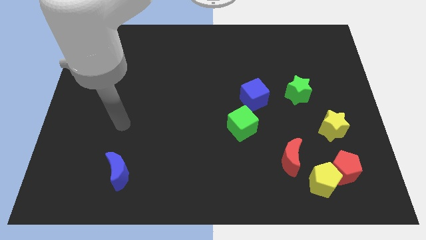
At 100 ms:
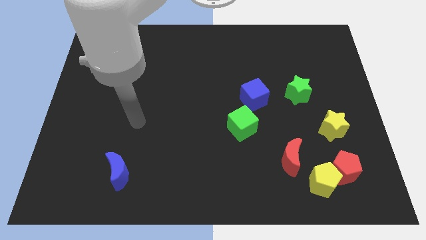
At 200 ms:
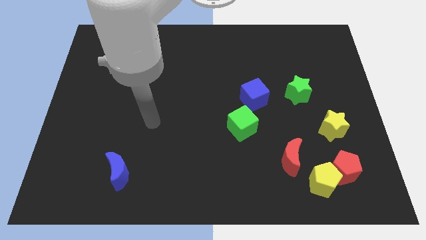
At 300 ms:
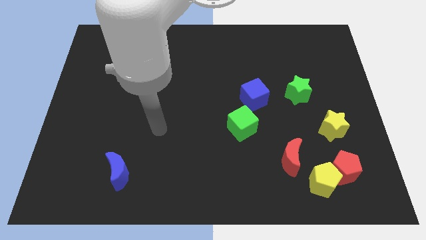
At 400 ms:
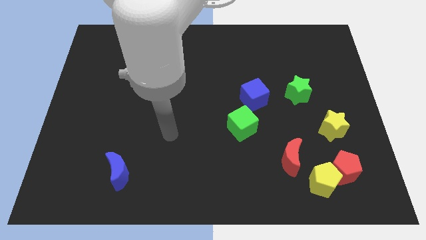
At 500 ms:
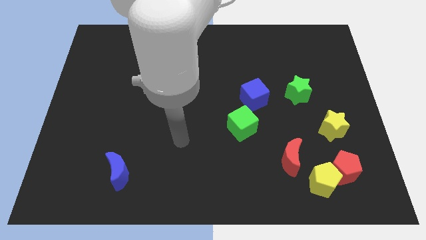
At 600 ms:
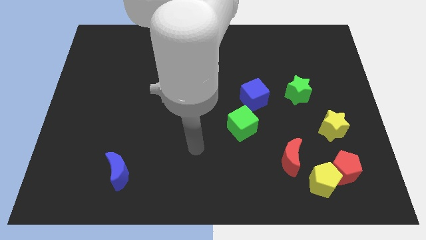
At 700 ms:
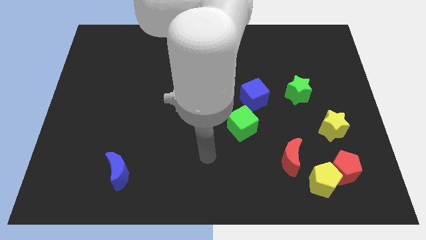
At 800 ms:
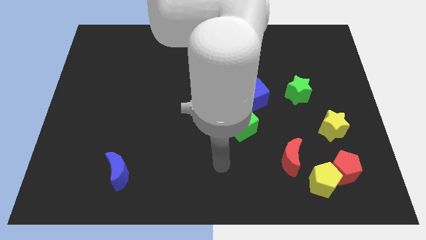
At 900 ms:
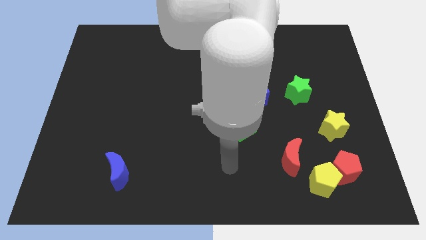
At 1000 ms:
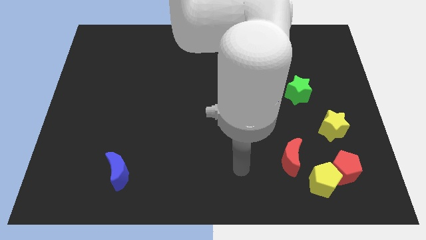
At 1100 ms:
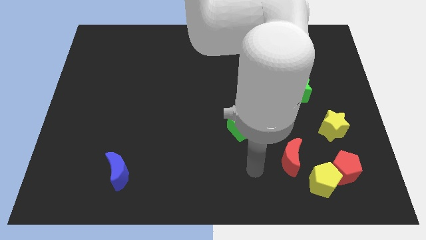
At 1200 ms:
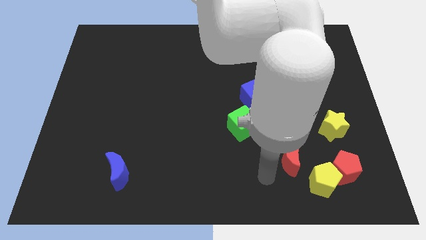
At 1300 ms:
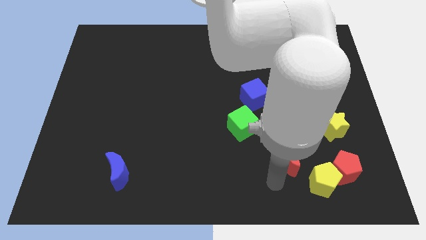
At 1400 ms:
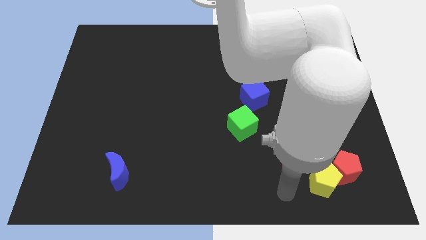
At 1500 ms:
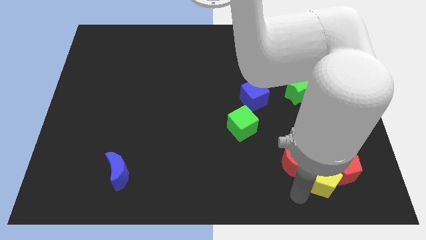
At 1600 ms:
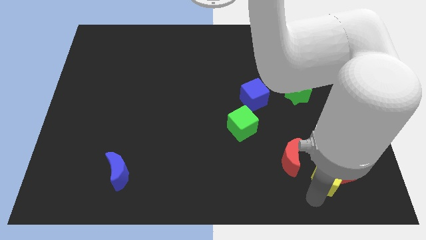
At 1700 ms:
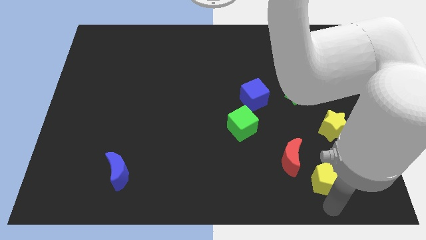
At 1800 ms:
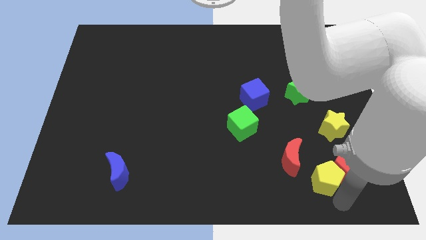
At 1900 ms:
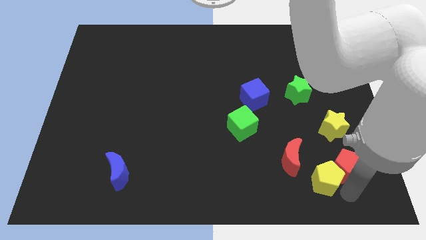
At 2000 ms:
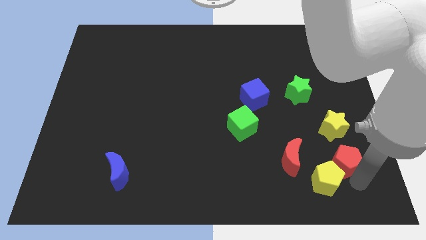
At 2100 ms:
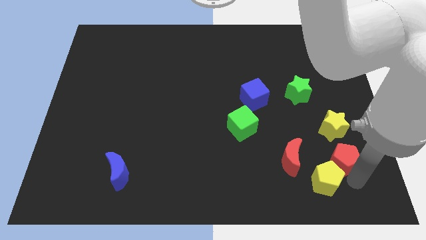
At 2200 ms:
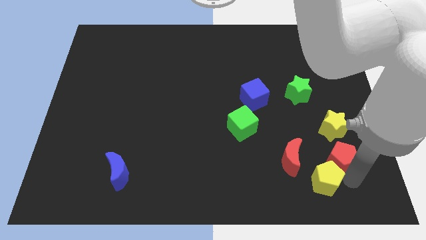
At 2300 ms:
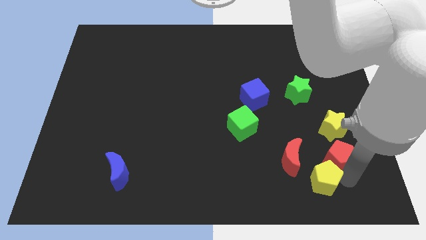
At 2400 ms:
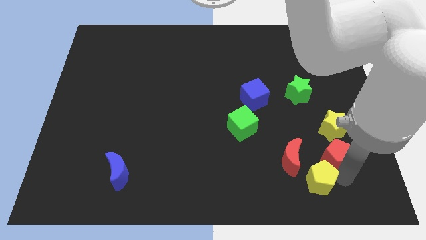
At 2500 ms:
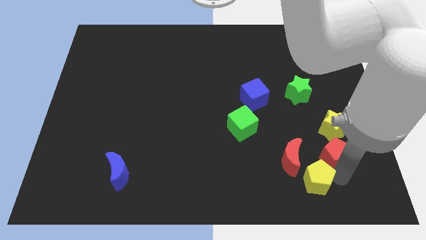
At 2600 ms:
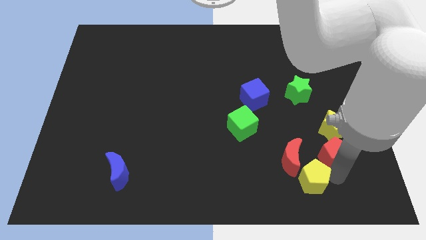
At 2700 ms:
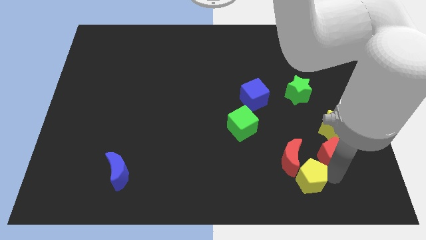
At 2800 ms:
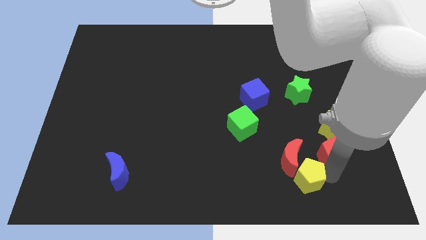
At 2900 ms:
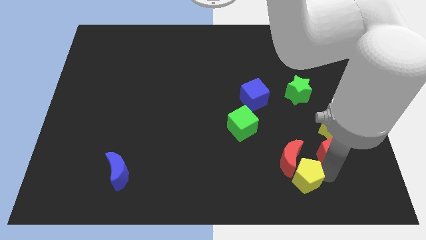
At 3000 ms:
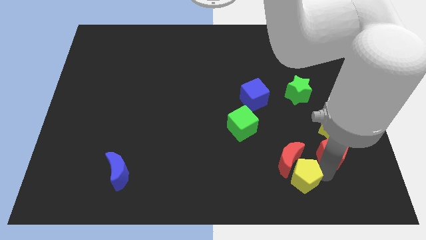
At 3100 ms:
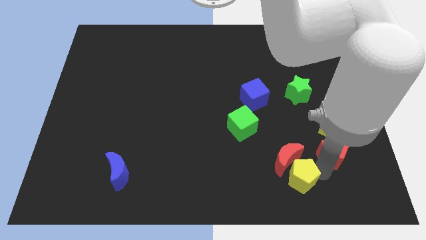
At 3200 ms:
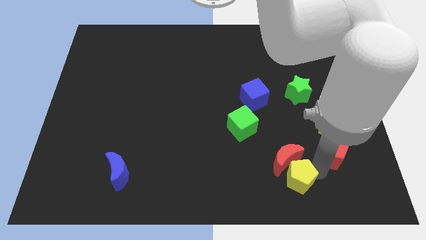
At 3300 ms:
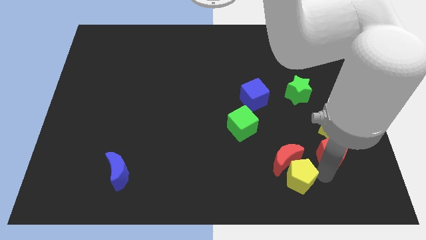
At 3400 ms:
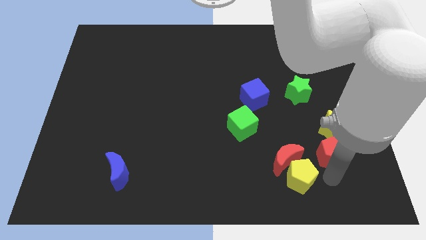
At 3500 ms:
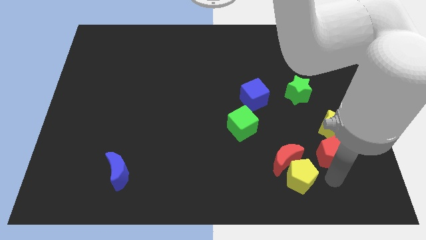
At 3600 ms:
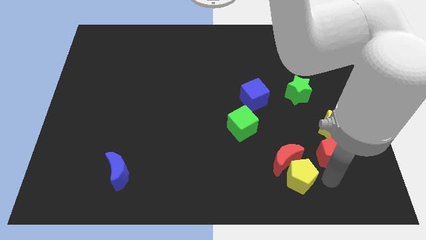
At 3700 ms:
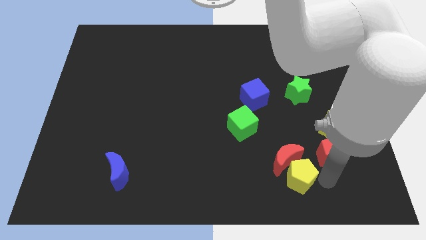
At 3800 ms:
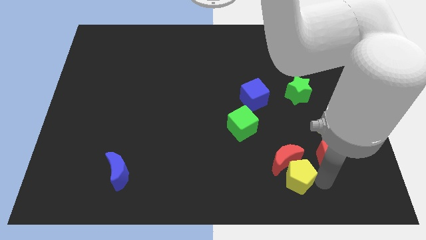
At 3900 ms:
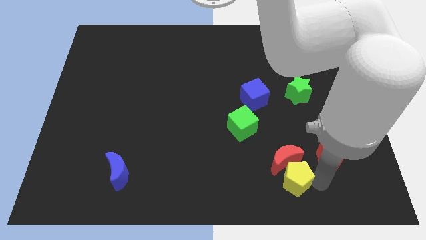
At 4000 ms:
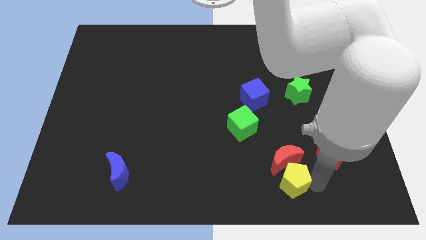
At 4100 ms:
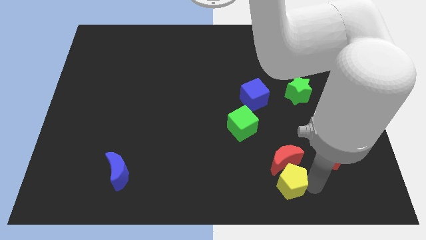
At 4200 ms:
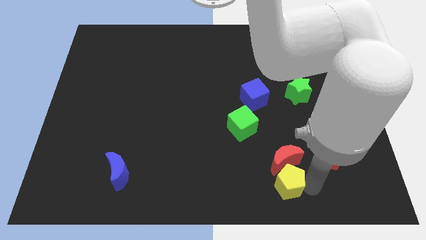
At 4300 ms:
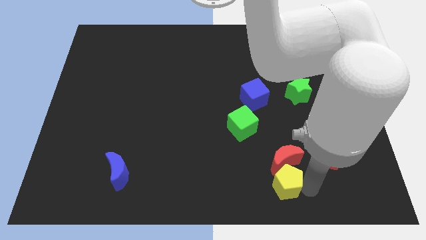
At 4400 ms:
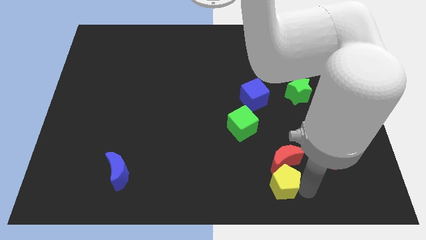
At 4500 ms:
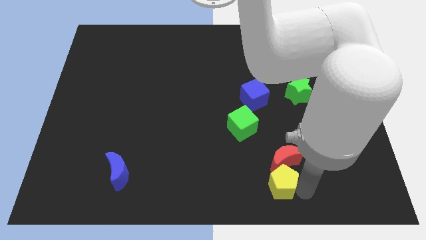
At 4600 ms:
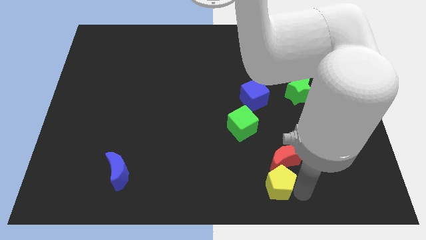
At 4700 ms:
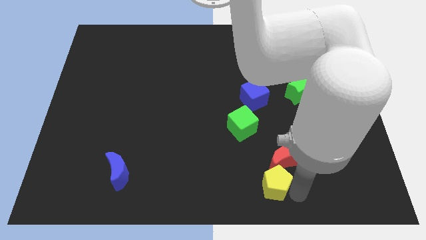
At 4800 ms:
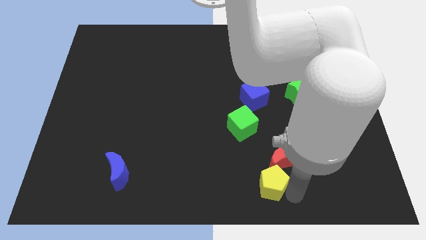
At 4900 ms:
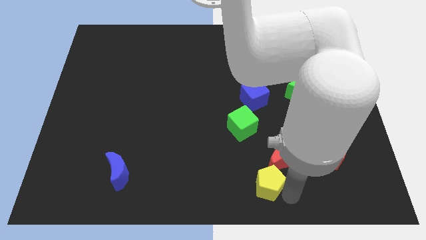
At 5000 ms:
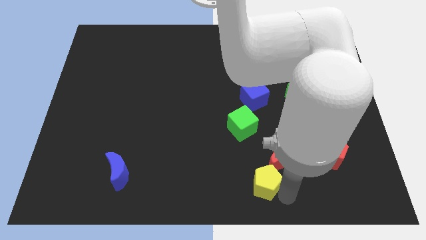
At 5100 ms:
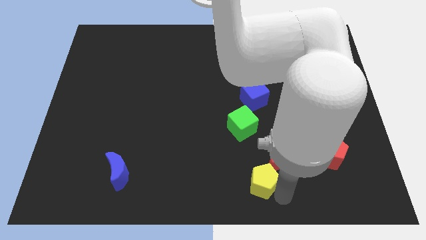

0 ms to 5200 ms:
slide the yellow pentagon to the bottom of the green cube

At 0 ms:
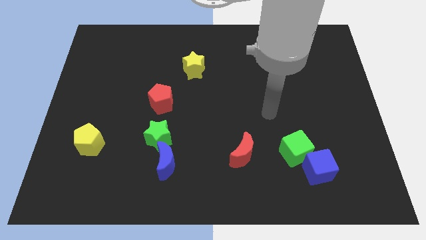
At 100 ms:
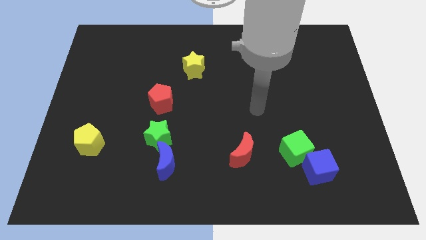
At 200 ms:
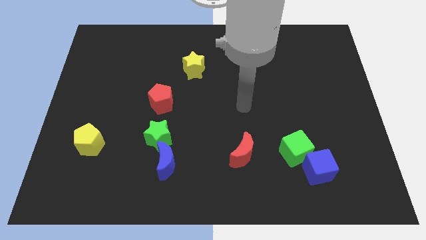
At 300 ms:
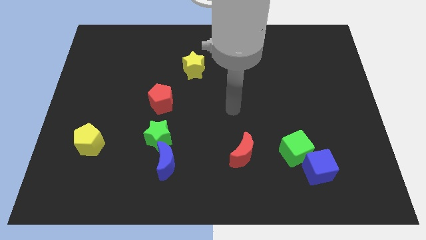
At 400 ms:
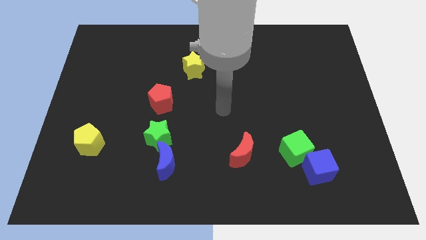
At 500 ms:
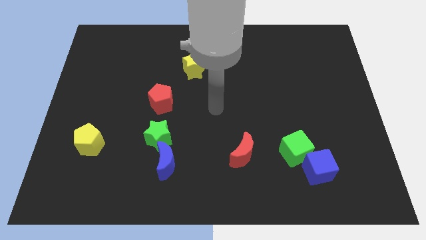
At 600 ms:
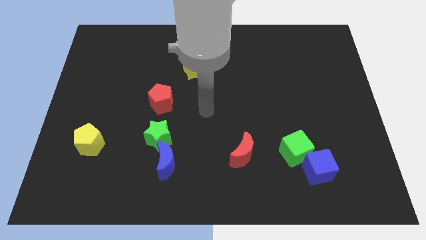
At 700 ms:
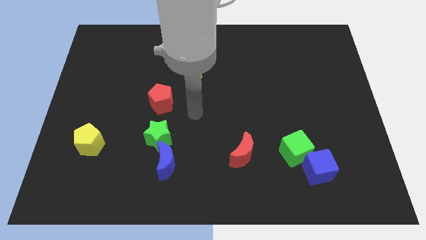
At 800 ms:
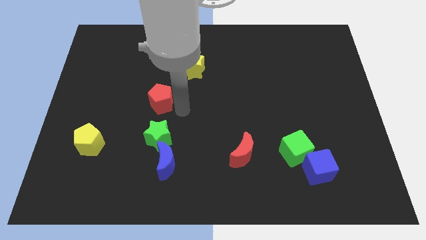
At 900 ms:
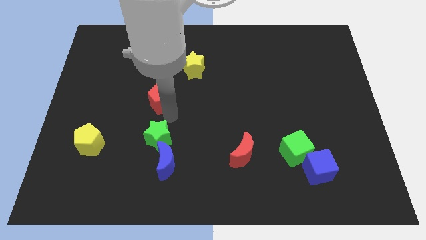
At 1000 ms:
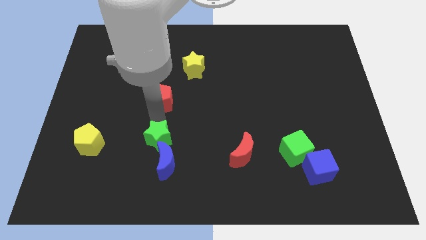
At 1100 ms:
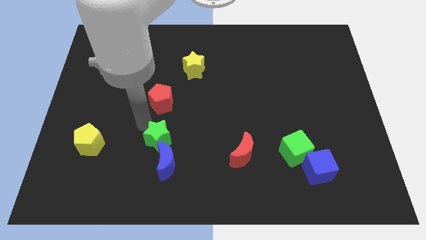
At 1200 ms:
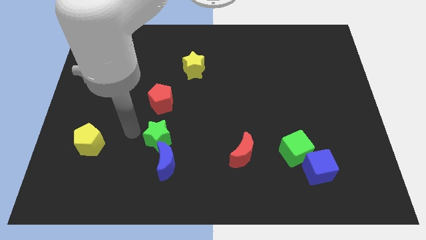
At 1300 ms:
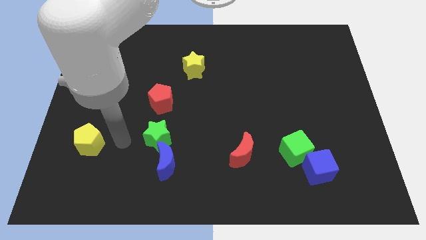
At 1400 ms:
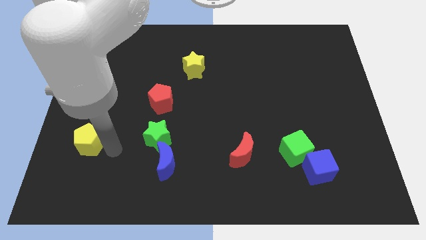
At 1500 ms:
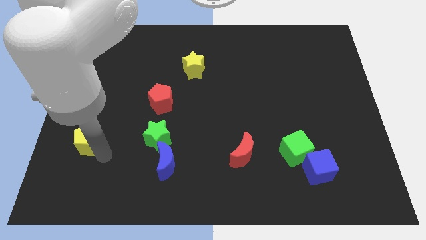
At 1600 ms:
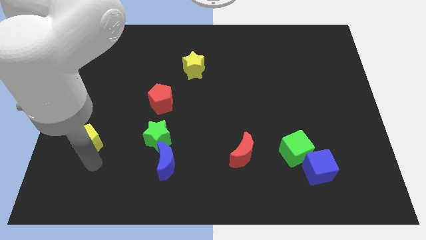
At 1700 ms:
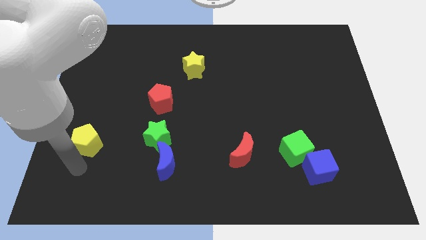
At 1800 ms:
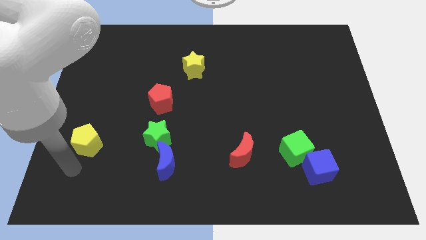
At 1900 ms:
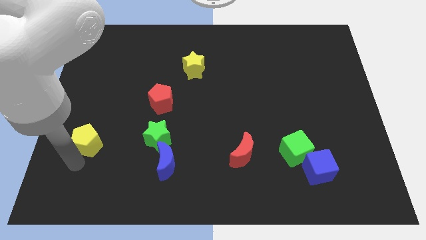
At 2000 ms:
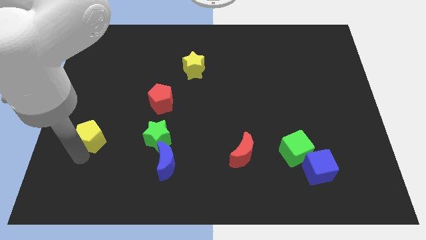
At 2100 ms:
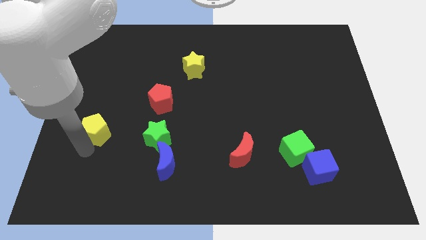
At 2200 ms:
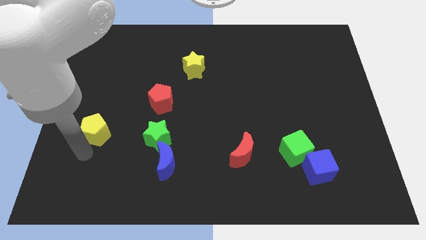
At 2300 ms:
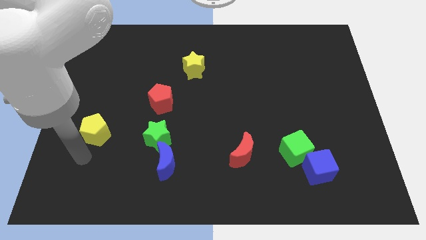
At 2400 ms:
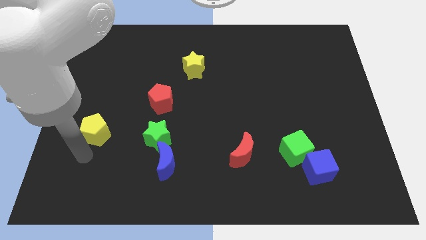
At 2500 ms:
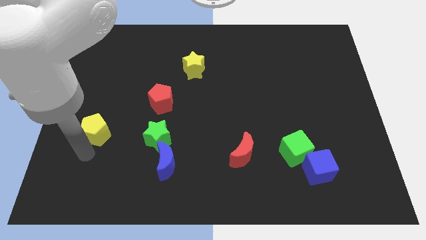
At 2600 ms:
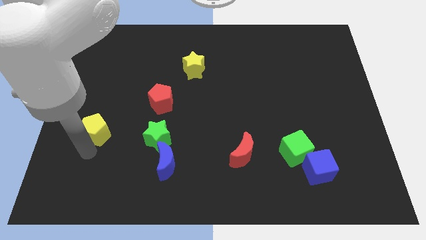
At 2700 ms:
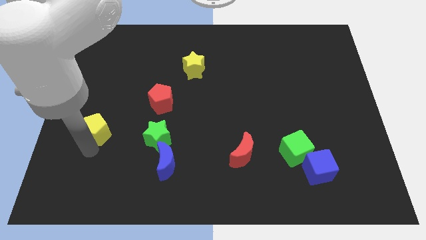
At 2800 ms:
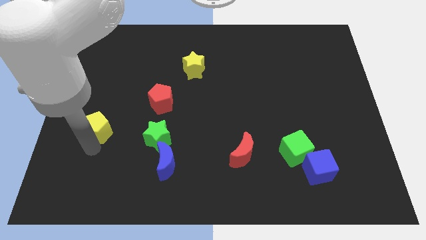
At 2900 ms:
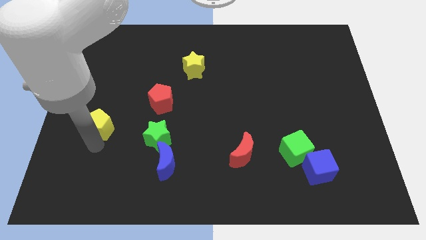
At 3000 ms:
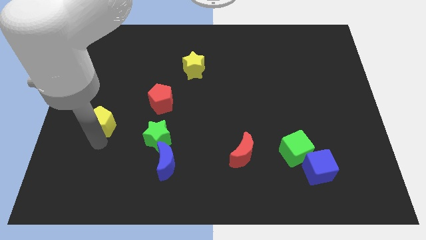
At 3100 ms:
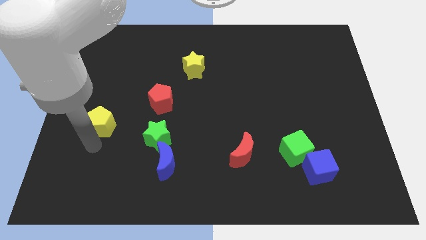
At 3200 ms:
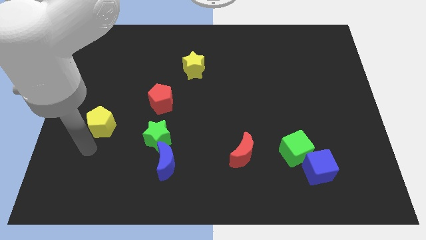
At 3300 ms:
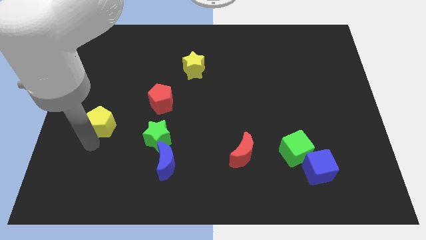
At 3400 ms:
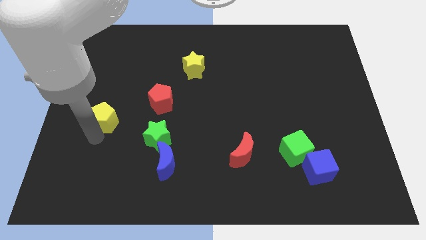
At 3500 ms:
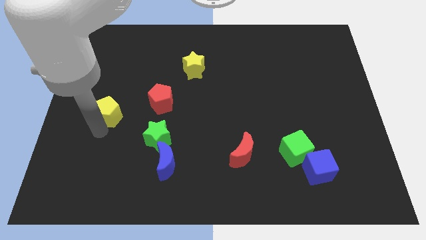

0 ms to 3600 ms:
slide the yellow pentagon to the left side of the red pentagon
